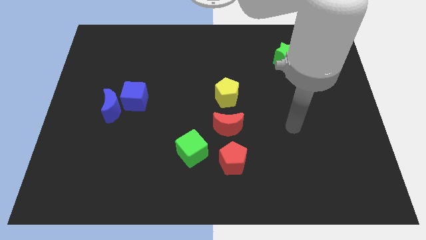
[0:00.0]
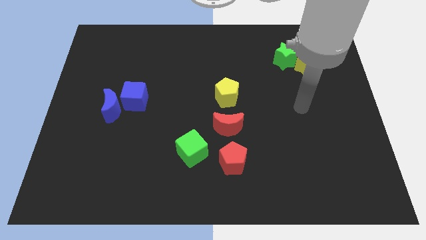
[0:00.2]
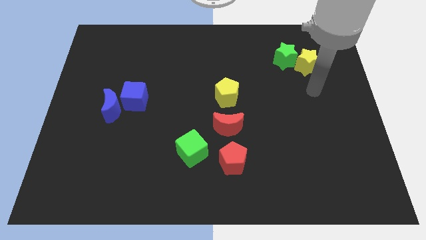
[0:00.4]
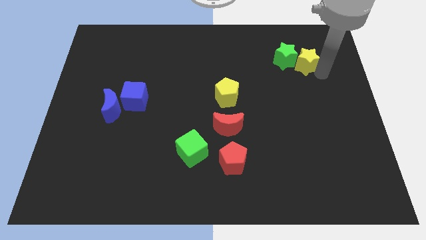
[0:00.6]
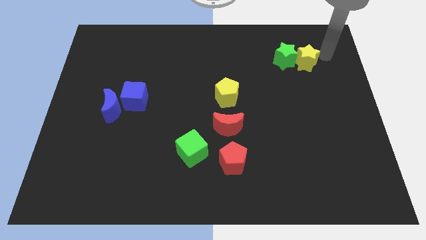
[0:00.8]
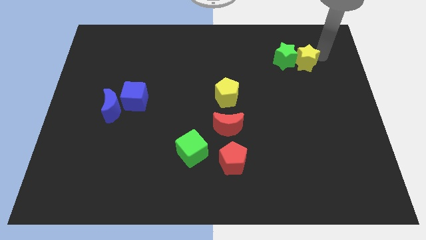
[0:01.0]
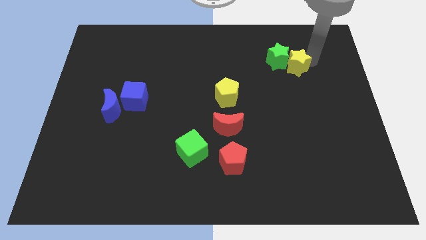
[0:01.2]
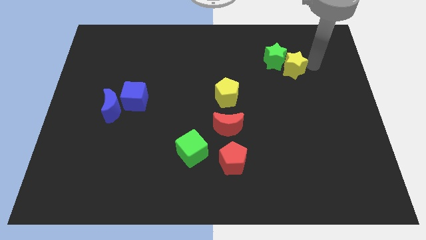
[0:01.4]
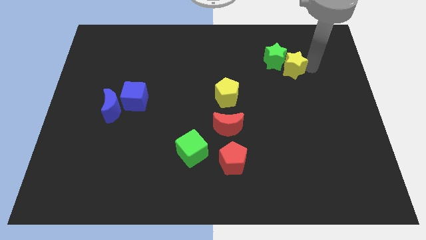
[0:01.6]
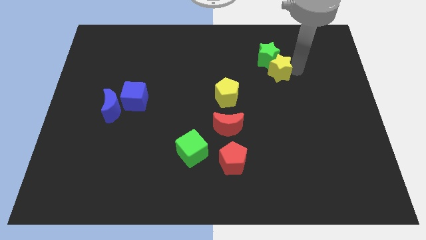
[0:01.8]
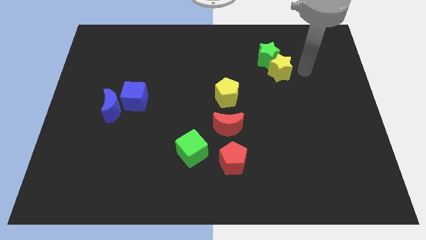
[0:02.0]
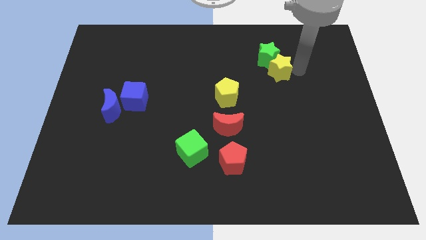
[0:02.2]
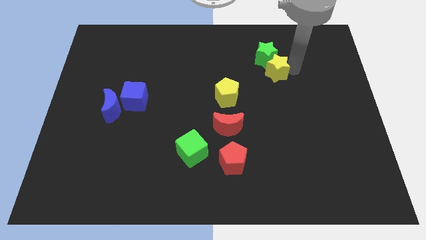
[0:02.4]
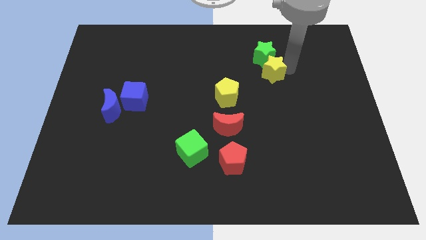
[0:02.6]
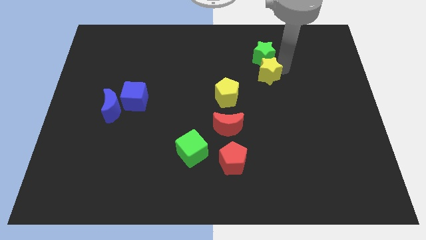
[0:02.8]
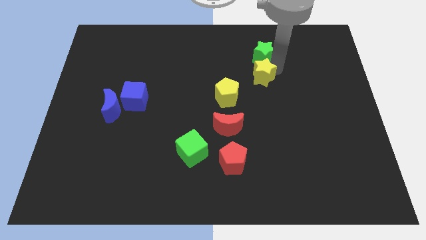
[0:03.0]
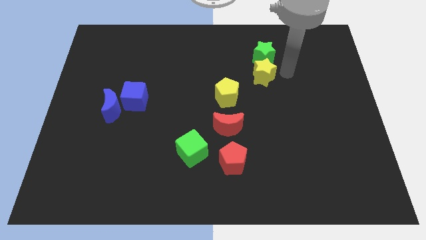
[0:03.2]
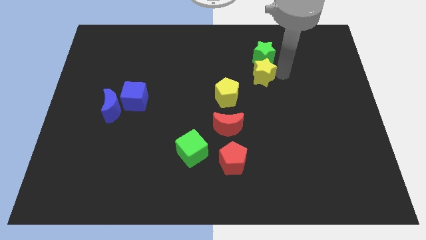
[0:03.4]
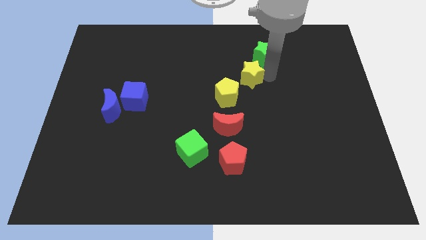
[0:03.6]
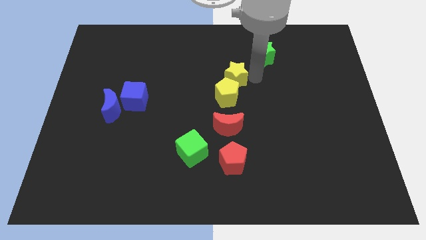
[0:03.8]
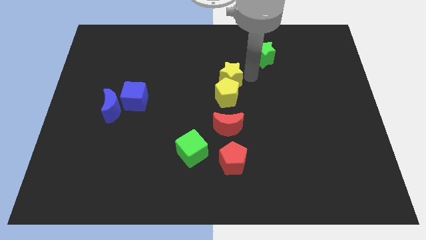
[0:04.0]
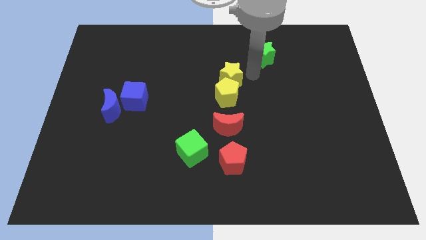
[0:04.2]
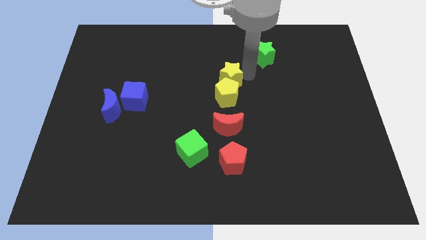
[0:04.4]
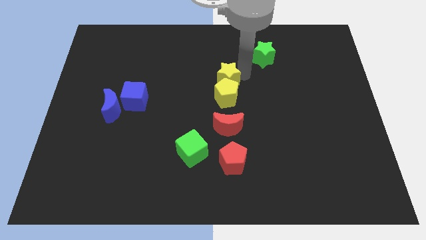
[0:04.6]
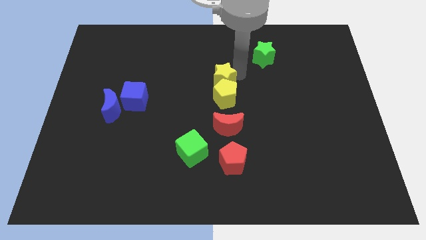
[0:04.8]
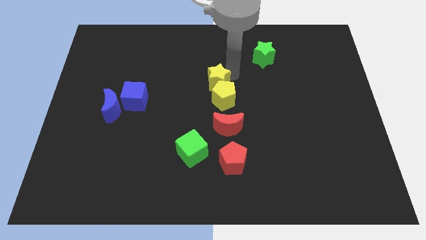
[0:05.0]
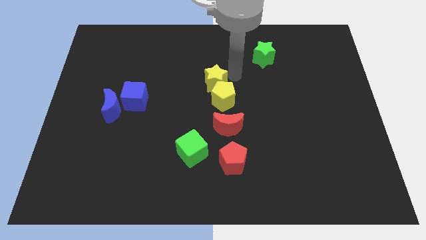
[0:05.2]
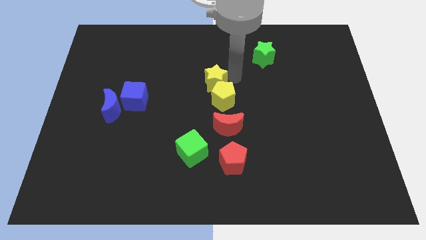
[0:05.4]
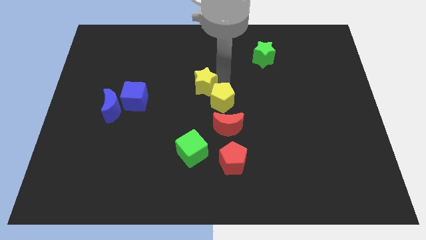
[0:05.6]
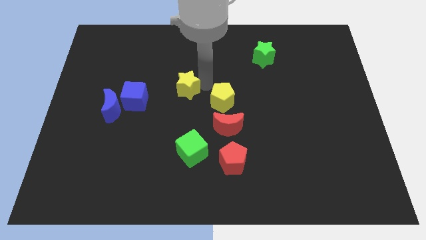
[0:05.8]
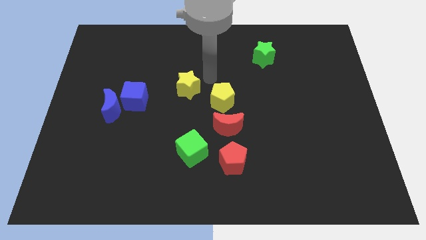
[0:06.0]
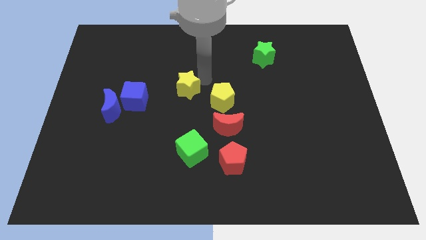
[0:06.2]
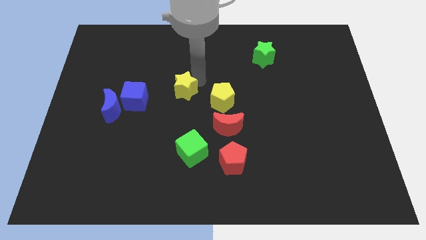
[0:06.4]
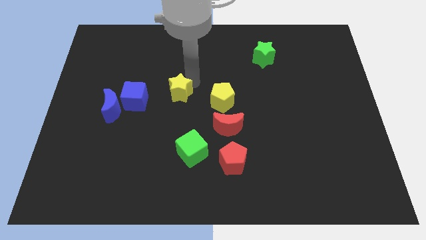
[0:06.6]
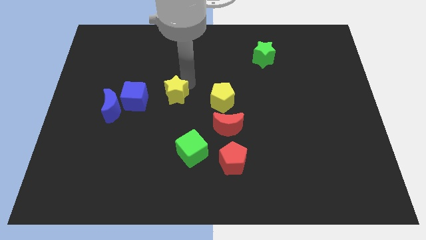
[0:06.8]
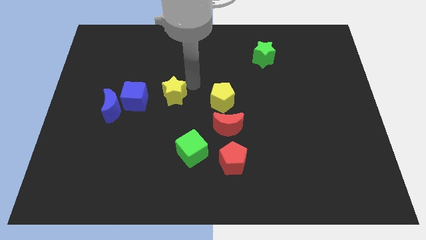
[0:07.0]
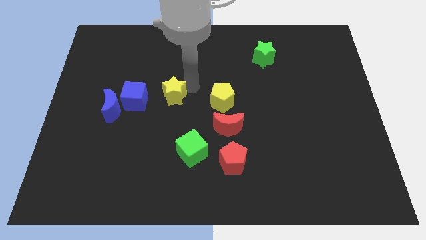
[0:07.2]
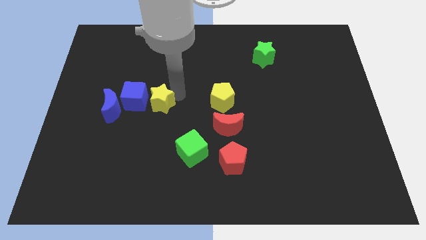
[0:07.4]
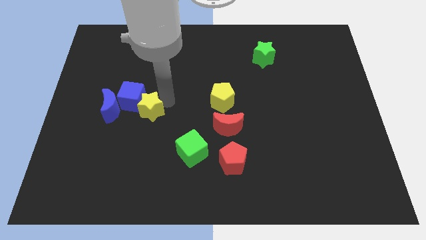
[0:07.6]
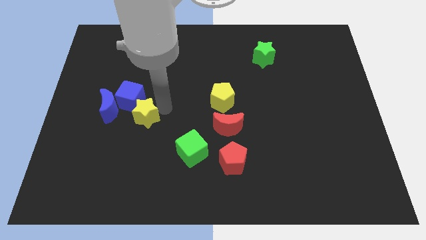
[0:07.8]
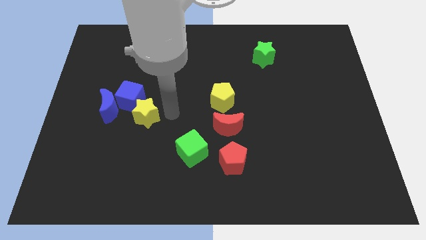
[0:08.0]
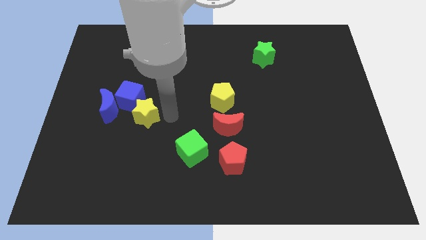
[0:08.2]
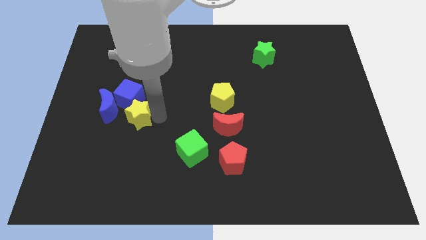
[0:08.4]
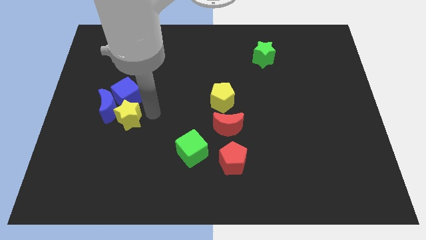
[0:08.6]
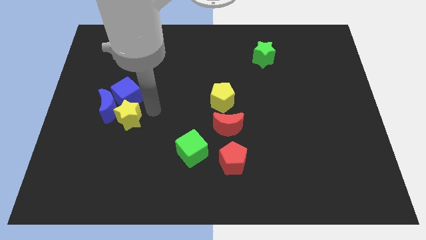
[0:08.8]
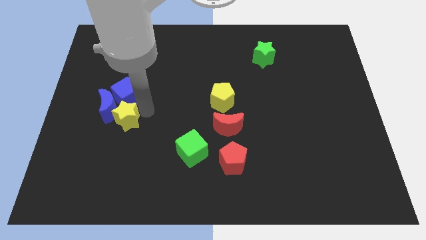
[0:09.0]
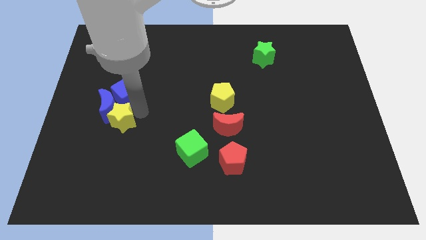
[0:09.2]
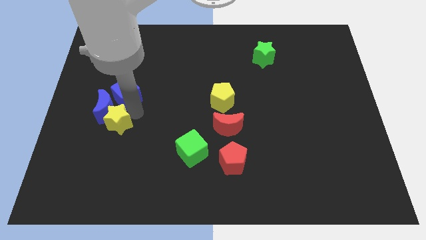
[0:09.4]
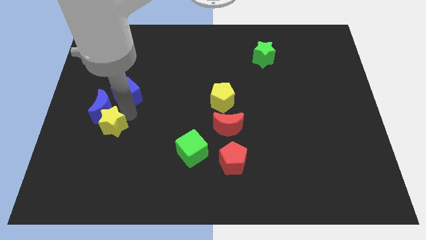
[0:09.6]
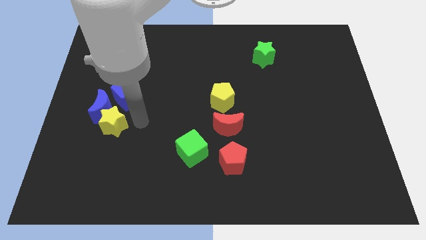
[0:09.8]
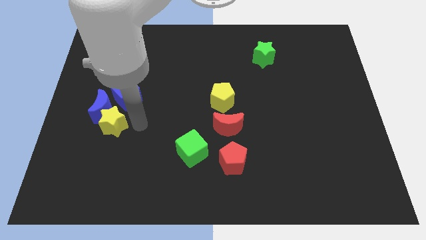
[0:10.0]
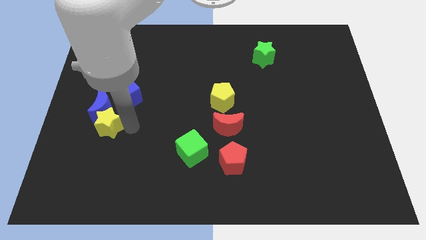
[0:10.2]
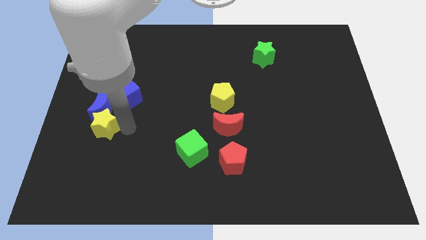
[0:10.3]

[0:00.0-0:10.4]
put the yellow star to the bottom left of the blue moon

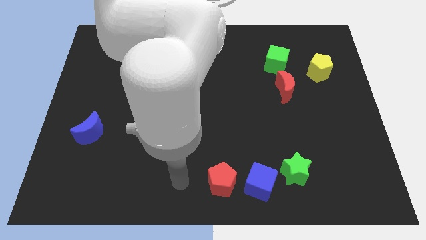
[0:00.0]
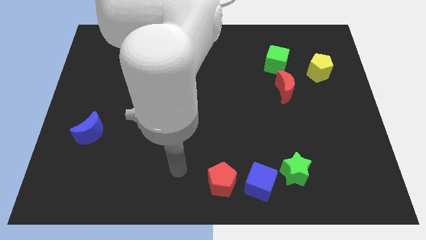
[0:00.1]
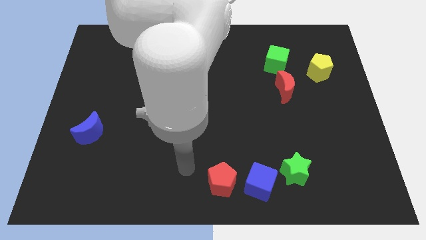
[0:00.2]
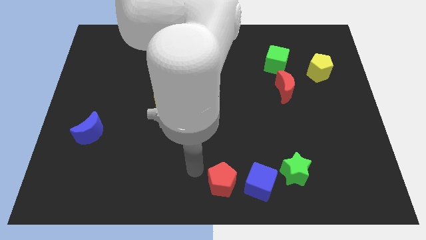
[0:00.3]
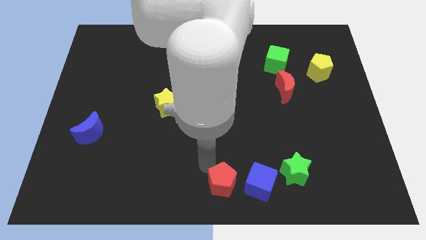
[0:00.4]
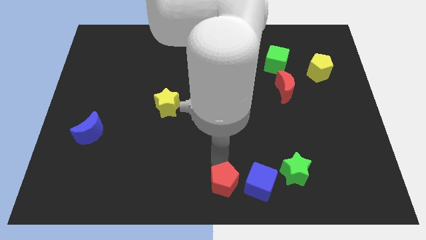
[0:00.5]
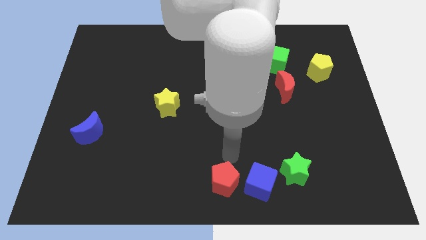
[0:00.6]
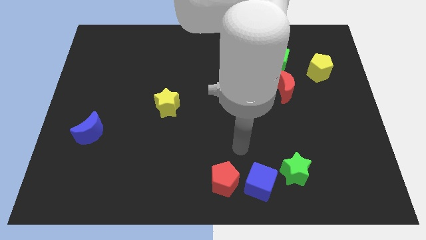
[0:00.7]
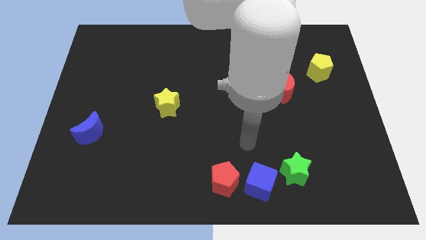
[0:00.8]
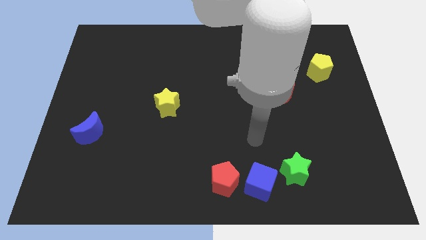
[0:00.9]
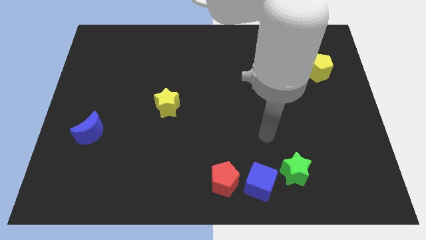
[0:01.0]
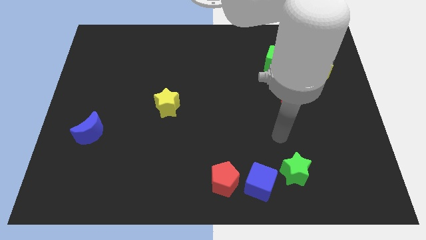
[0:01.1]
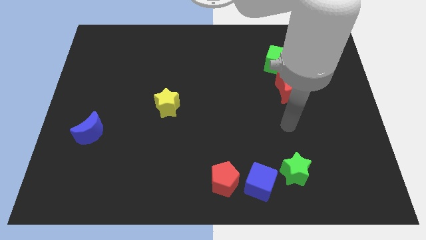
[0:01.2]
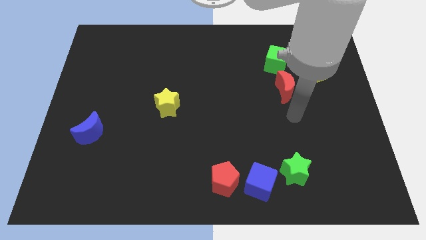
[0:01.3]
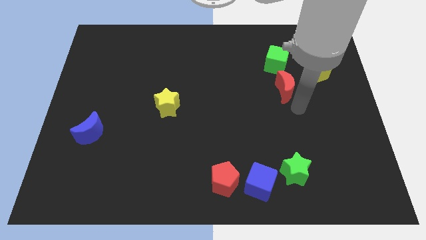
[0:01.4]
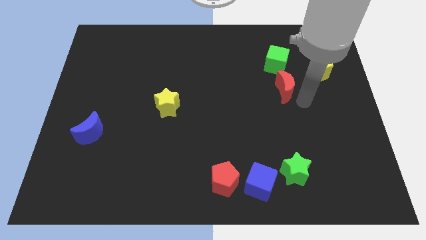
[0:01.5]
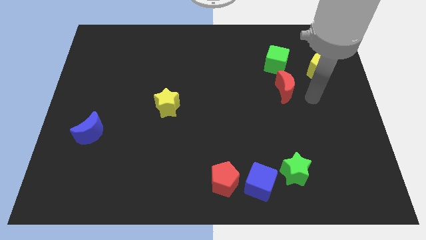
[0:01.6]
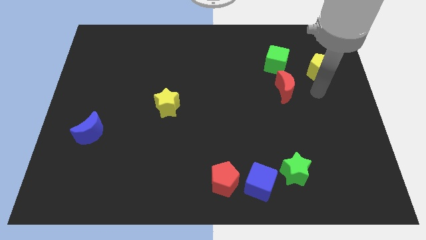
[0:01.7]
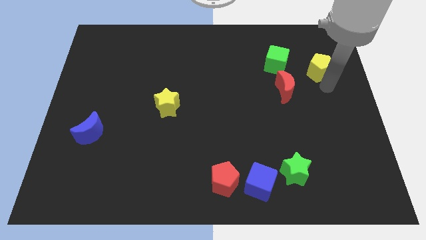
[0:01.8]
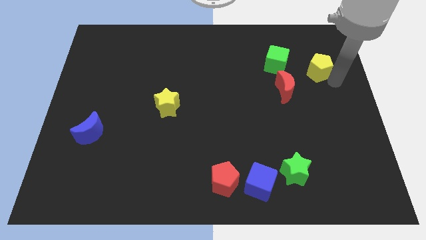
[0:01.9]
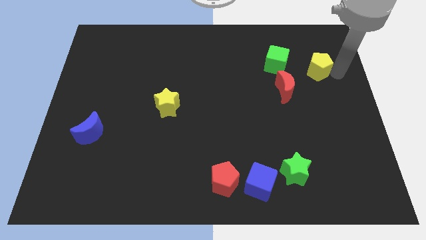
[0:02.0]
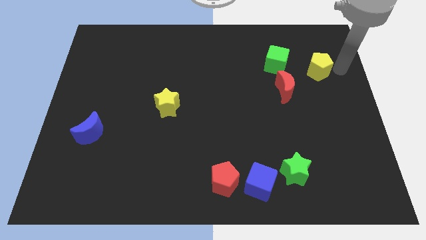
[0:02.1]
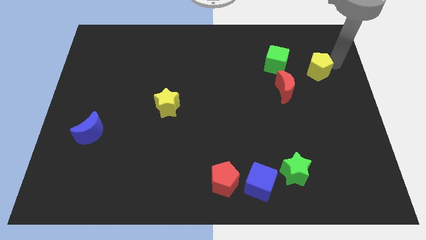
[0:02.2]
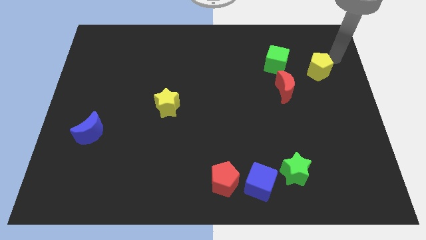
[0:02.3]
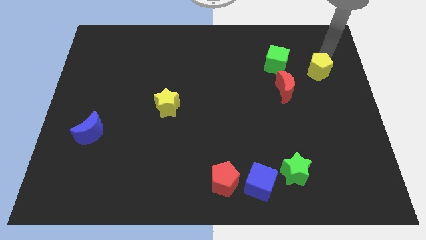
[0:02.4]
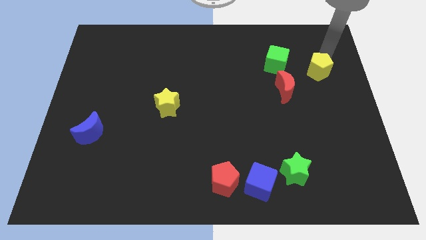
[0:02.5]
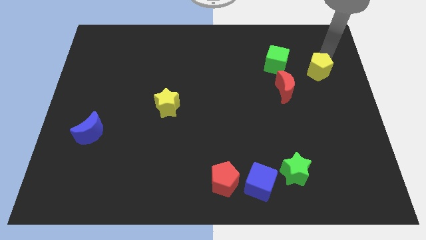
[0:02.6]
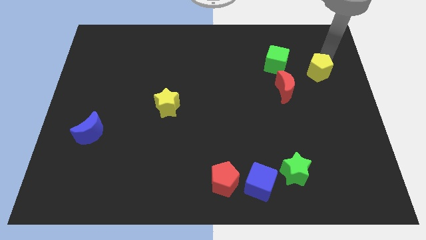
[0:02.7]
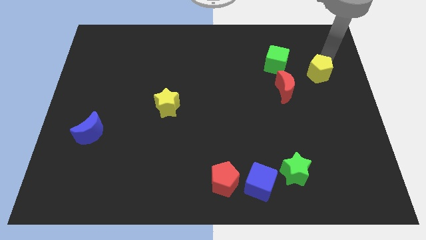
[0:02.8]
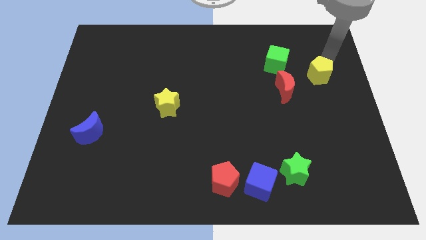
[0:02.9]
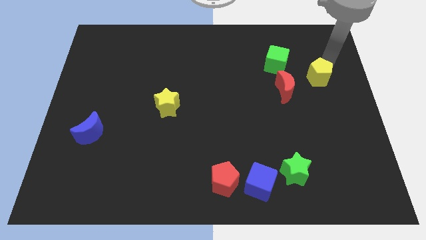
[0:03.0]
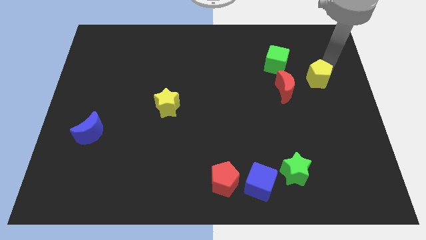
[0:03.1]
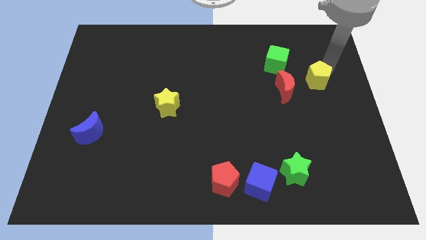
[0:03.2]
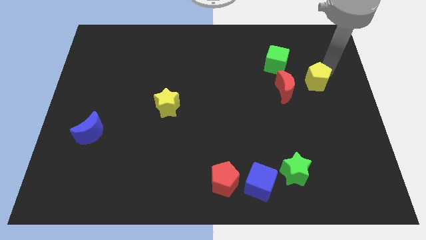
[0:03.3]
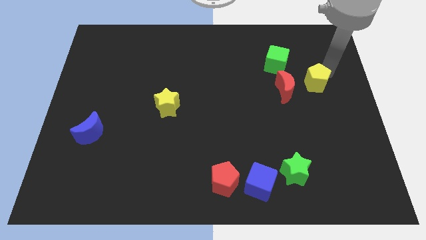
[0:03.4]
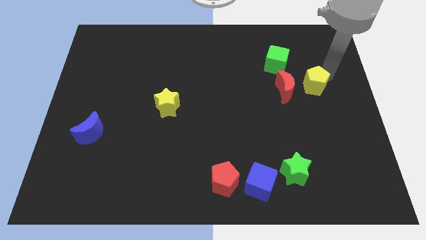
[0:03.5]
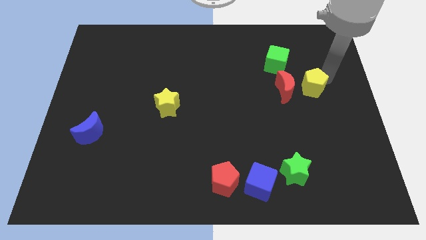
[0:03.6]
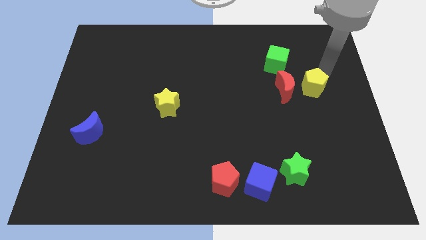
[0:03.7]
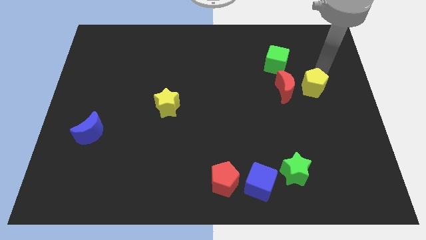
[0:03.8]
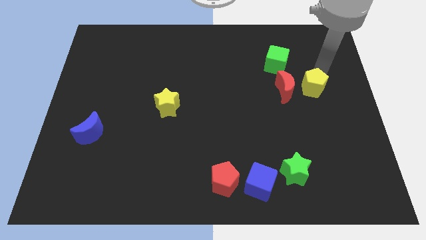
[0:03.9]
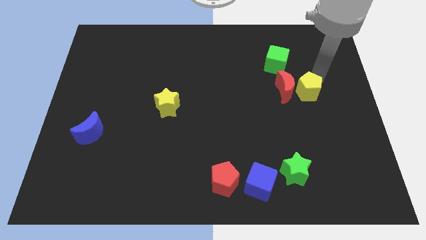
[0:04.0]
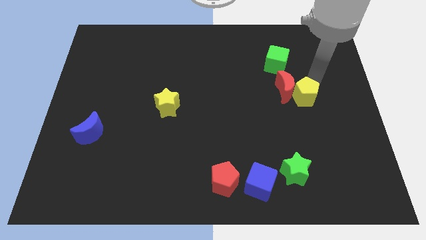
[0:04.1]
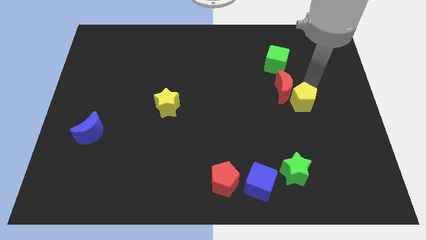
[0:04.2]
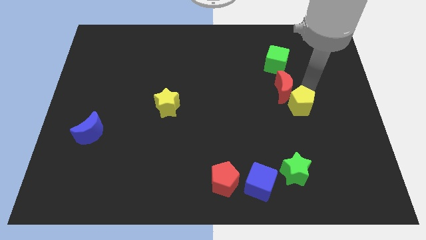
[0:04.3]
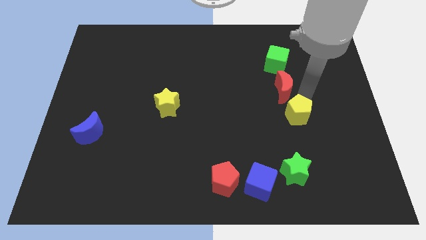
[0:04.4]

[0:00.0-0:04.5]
slide the yellow pentagon to the top of the green star
